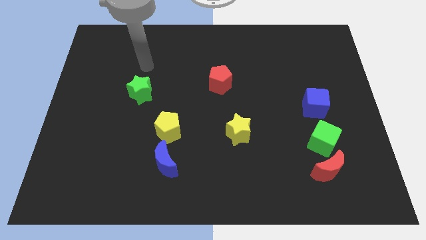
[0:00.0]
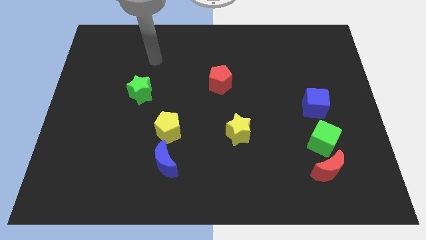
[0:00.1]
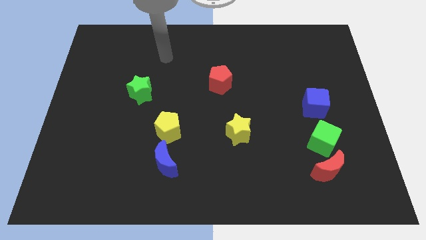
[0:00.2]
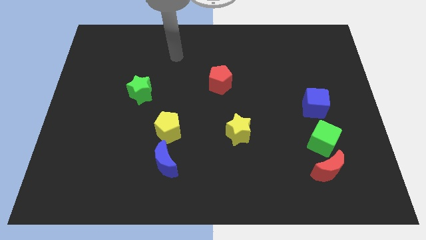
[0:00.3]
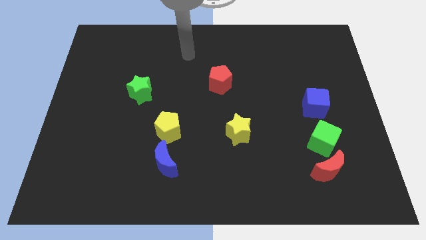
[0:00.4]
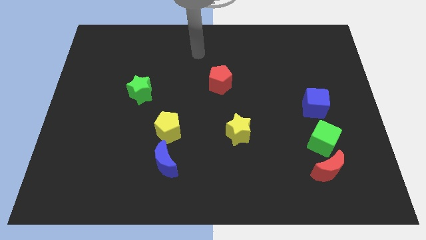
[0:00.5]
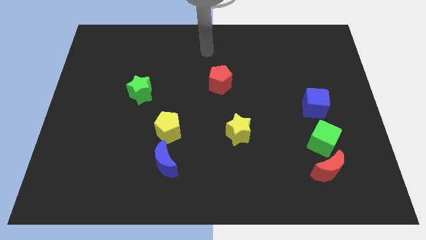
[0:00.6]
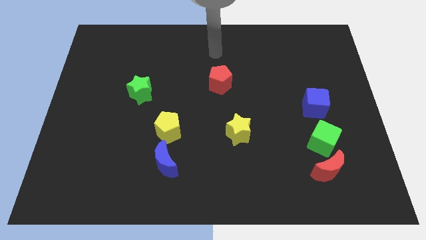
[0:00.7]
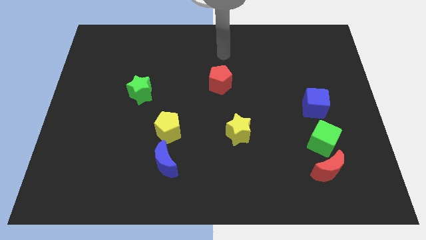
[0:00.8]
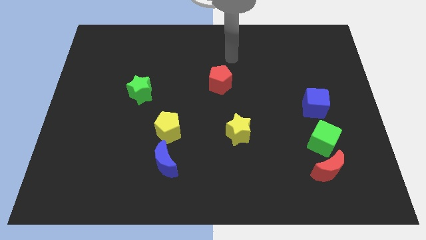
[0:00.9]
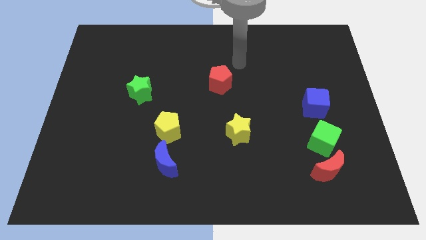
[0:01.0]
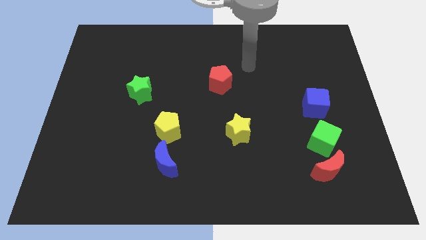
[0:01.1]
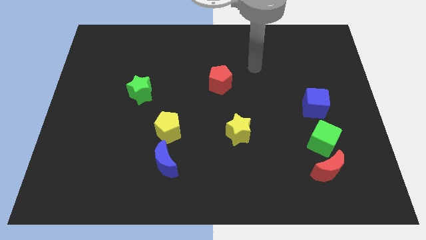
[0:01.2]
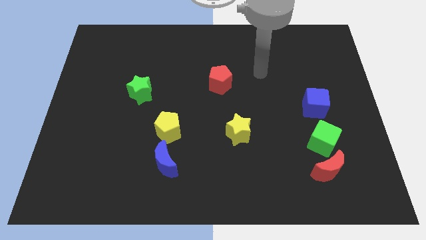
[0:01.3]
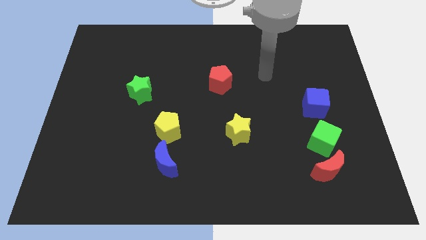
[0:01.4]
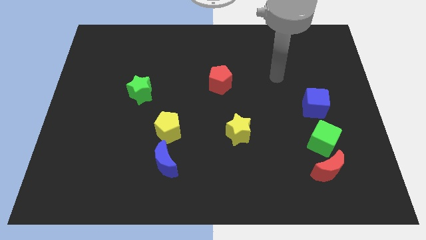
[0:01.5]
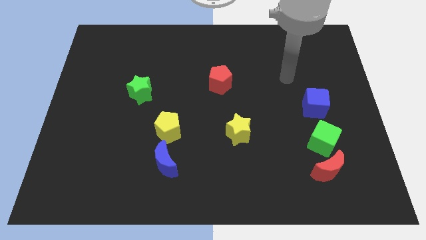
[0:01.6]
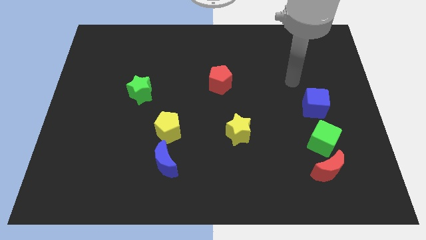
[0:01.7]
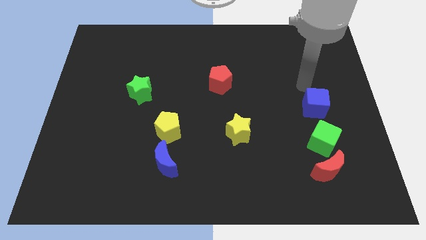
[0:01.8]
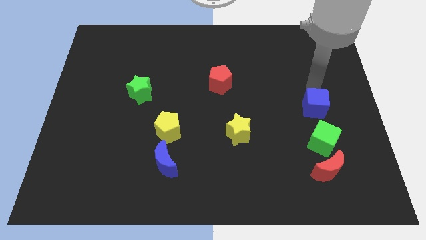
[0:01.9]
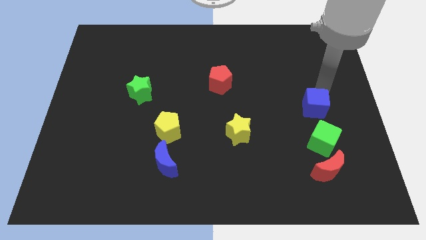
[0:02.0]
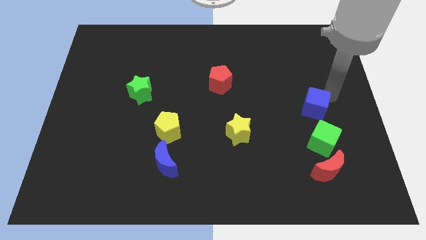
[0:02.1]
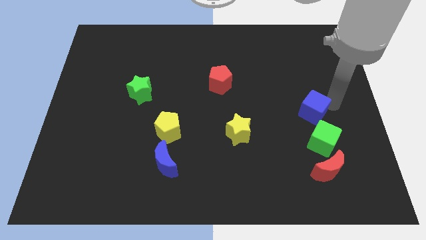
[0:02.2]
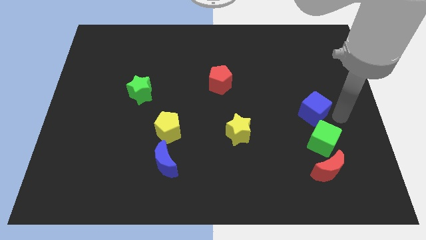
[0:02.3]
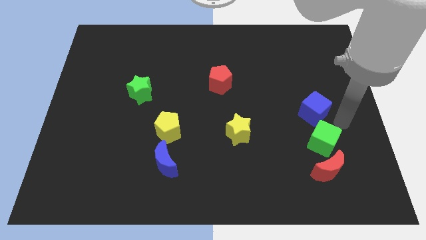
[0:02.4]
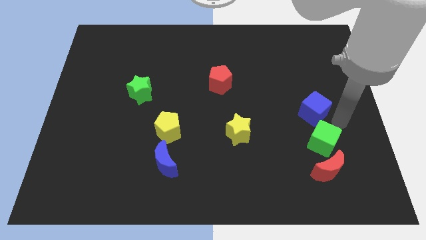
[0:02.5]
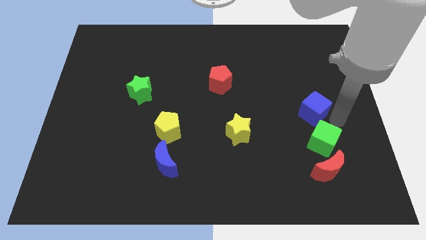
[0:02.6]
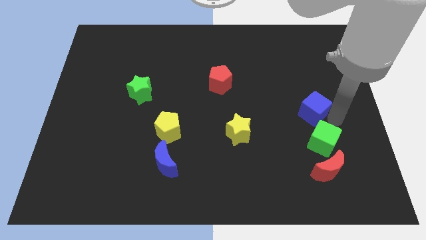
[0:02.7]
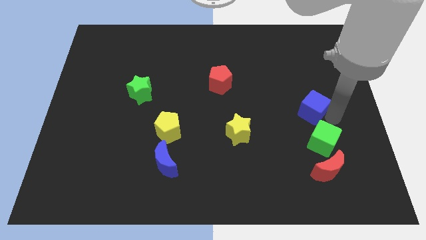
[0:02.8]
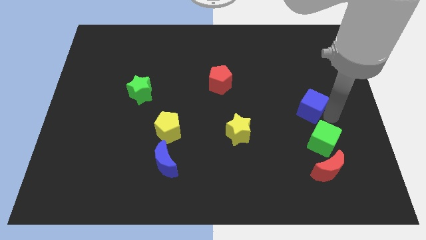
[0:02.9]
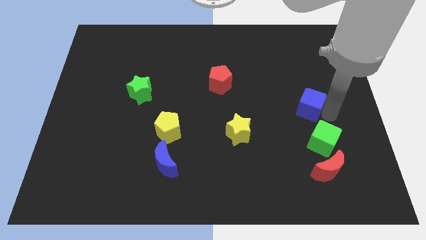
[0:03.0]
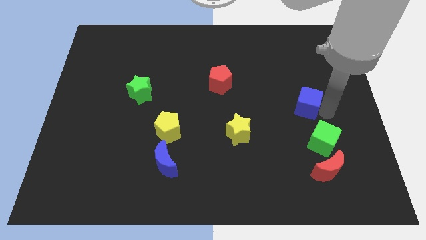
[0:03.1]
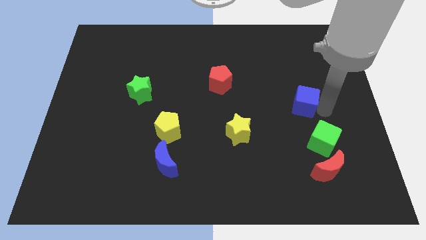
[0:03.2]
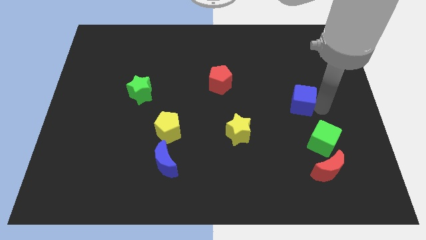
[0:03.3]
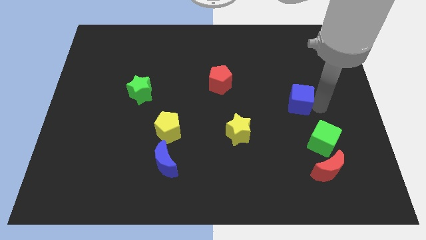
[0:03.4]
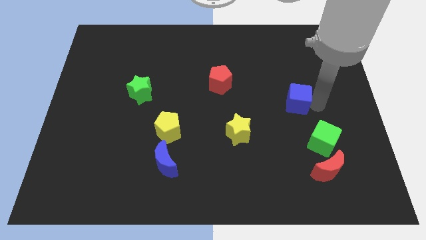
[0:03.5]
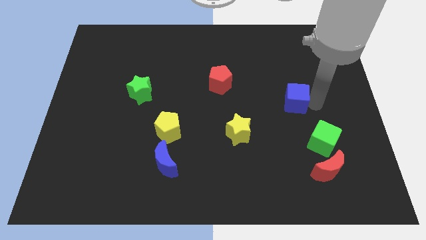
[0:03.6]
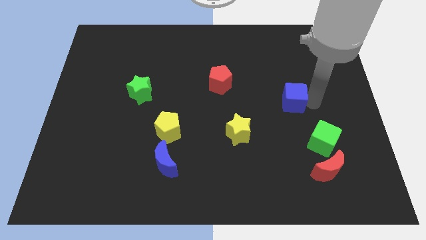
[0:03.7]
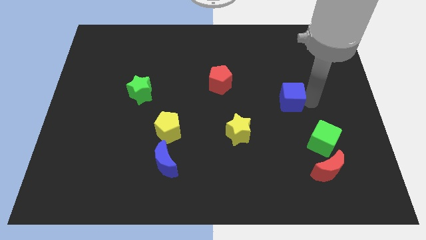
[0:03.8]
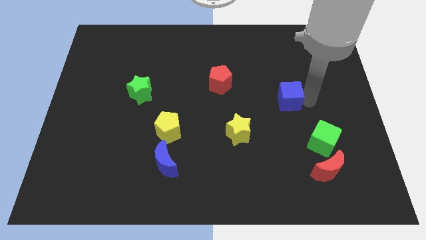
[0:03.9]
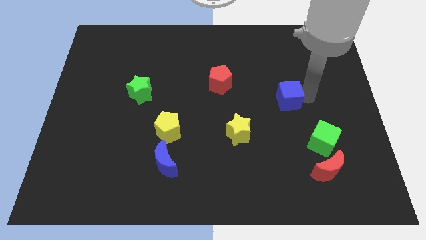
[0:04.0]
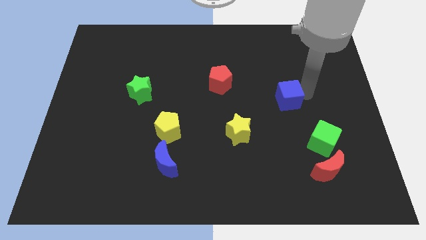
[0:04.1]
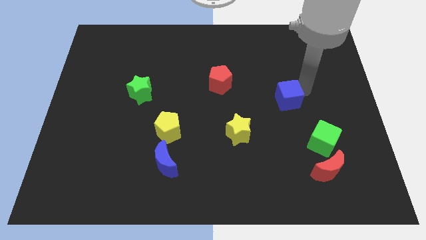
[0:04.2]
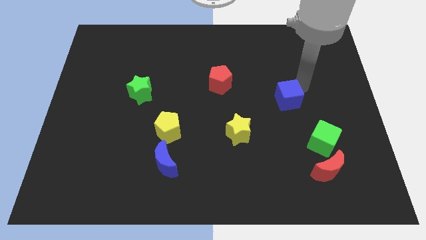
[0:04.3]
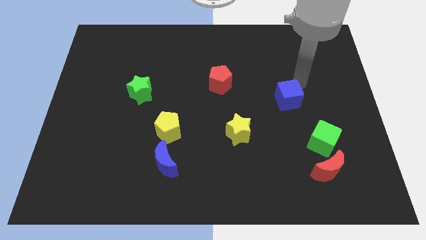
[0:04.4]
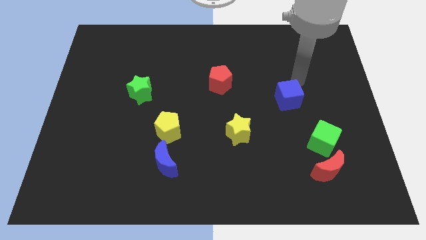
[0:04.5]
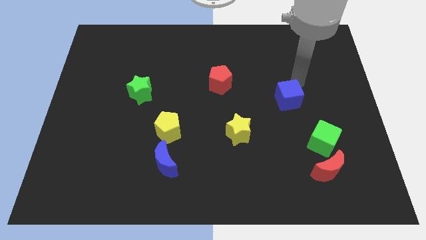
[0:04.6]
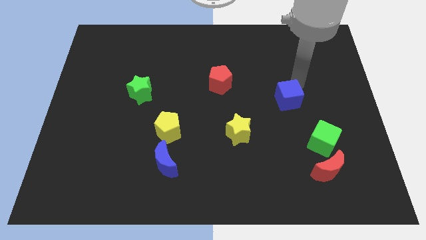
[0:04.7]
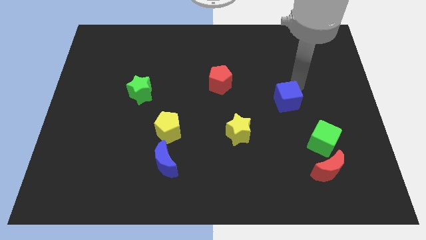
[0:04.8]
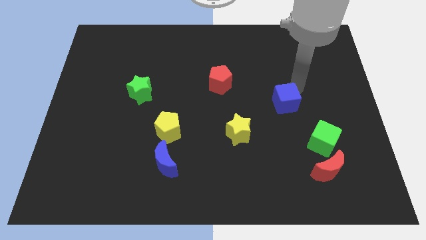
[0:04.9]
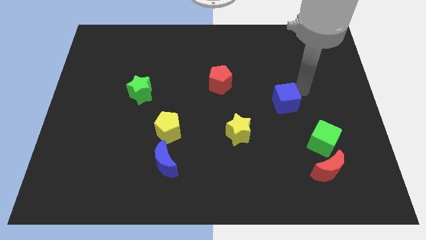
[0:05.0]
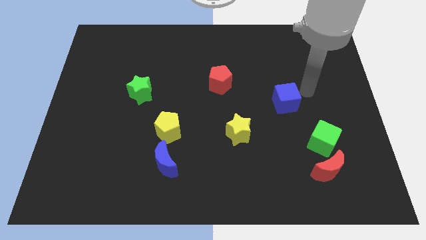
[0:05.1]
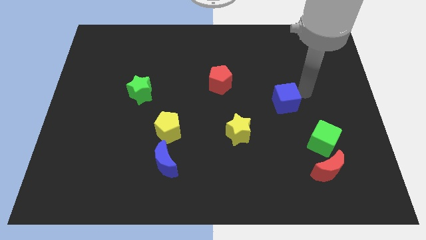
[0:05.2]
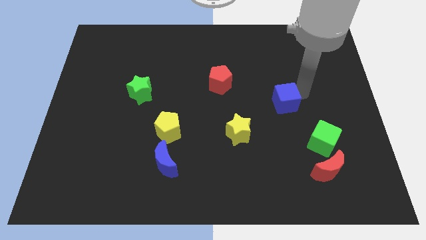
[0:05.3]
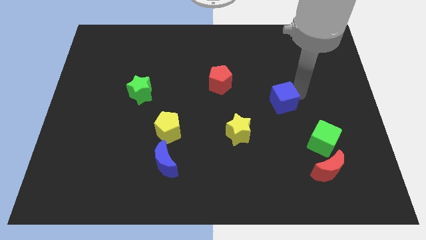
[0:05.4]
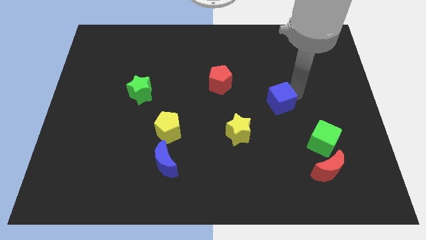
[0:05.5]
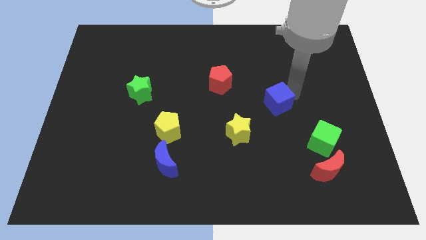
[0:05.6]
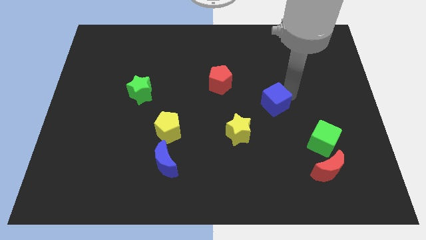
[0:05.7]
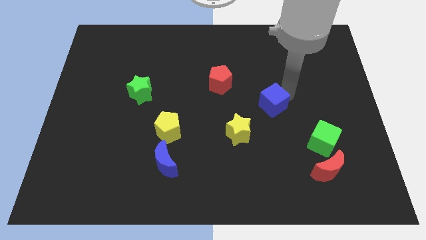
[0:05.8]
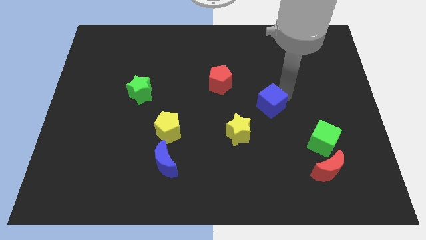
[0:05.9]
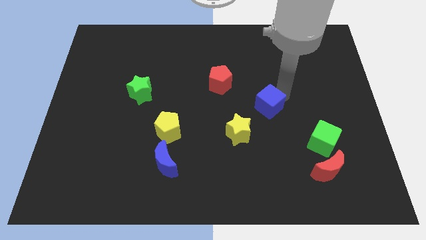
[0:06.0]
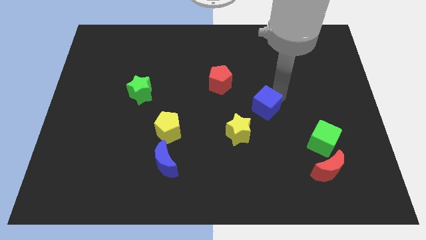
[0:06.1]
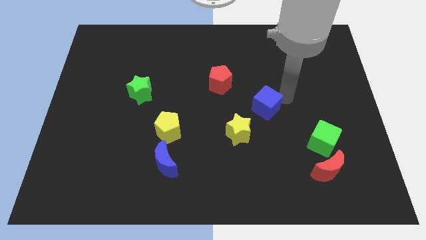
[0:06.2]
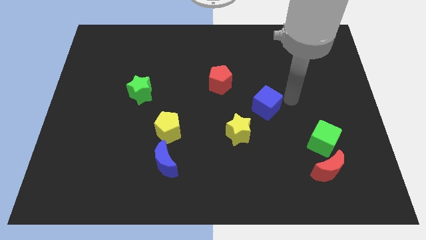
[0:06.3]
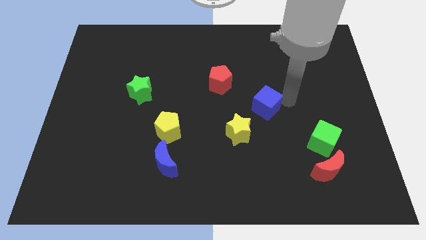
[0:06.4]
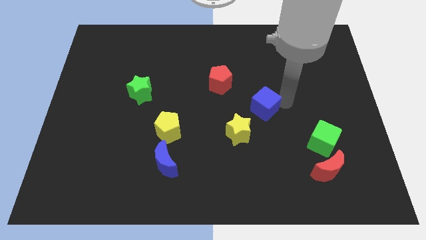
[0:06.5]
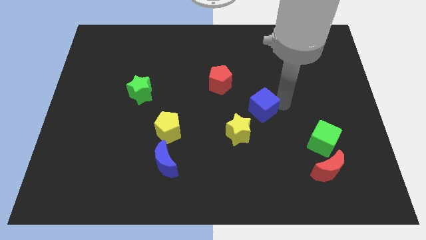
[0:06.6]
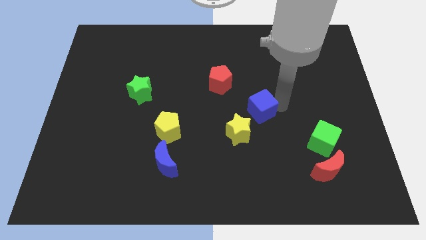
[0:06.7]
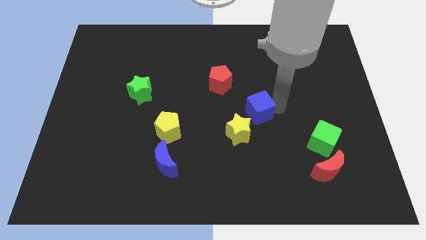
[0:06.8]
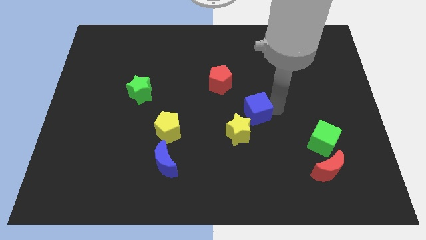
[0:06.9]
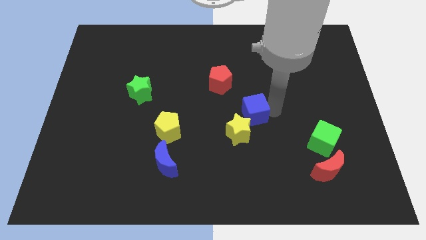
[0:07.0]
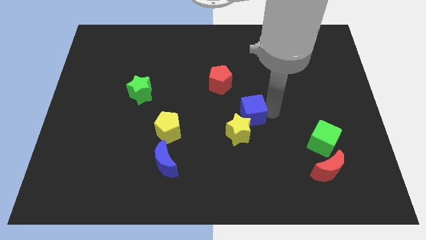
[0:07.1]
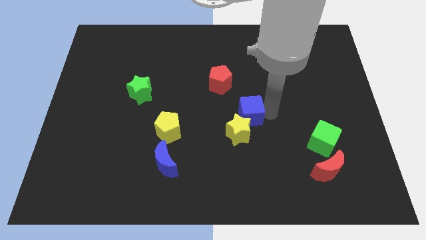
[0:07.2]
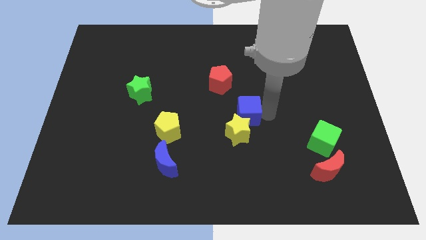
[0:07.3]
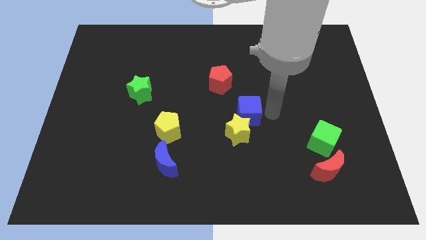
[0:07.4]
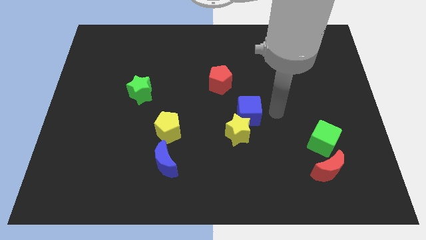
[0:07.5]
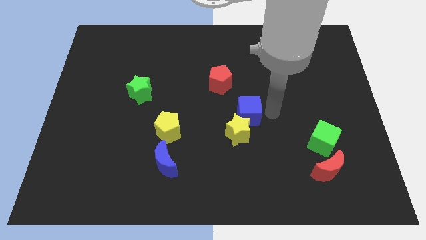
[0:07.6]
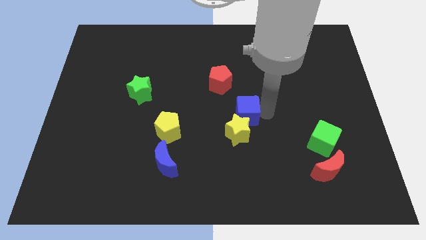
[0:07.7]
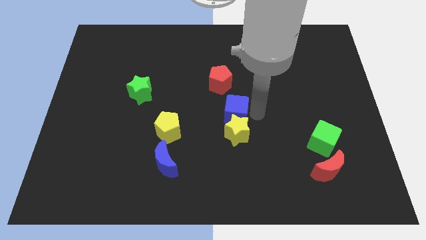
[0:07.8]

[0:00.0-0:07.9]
slide the blue cube diagonally up and to the left of the yellow star
